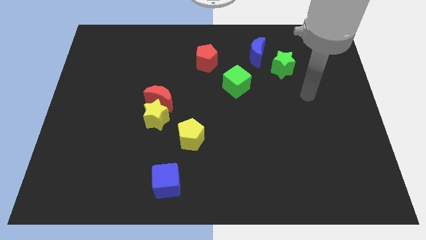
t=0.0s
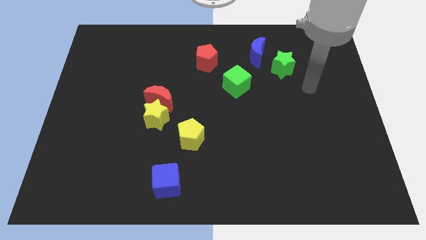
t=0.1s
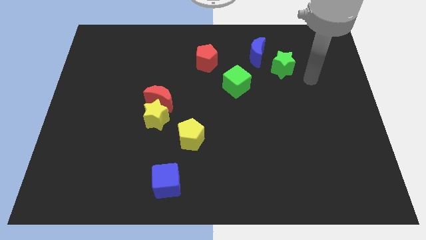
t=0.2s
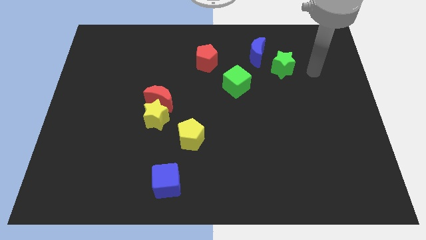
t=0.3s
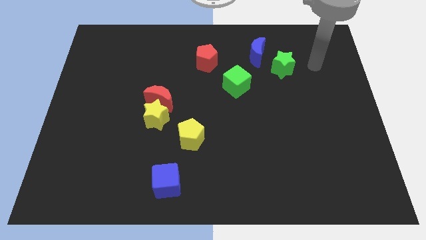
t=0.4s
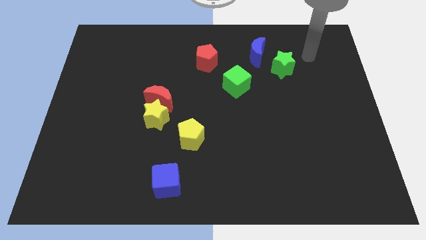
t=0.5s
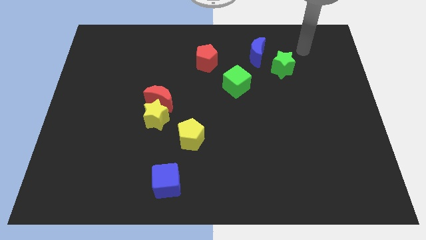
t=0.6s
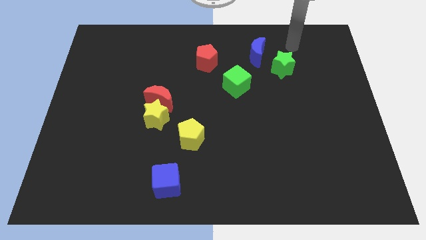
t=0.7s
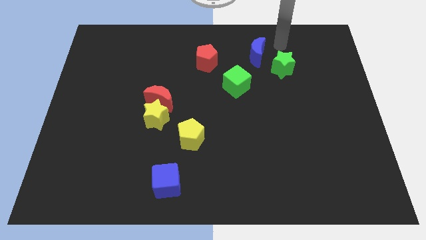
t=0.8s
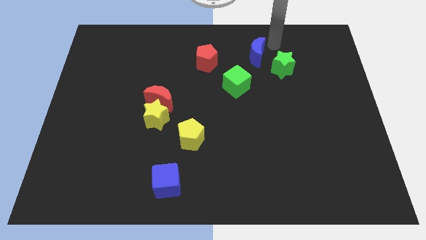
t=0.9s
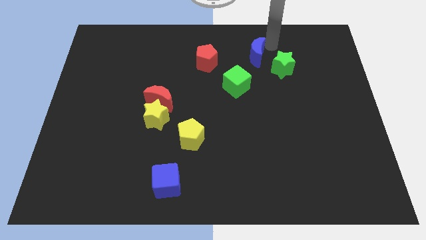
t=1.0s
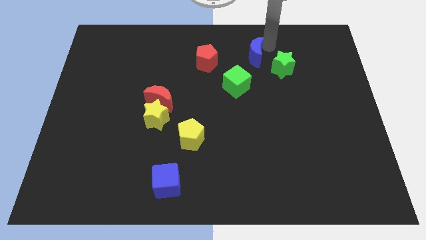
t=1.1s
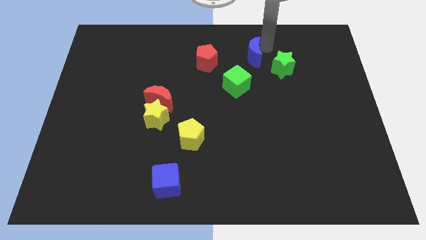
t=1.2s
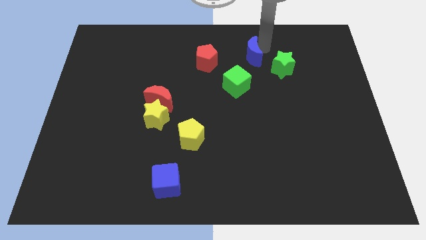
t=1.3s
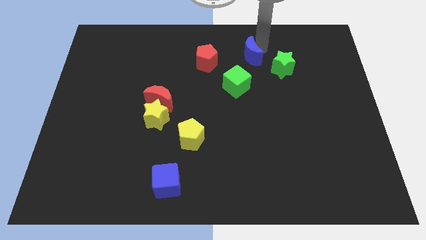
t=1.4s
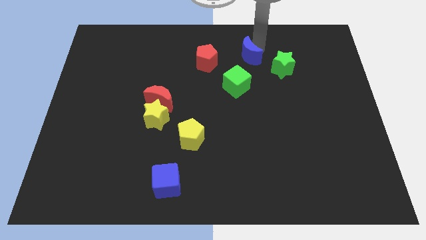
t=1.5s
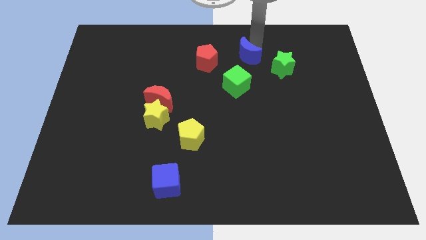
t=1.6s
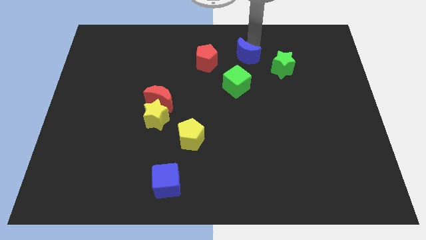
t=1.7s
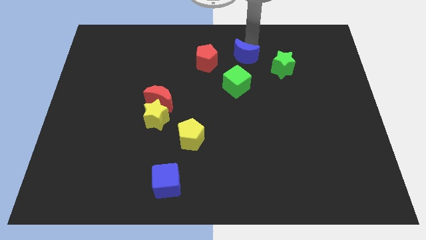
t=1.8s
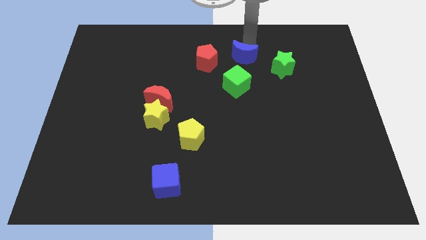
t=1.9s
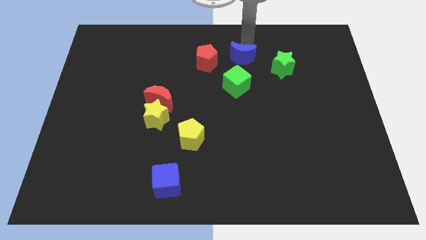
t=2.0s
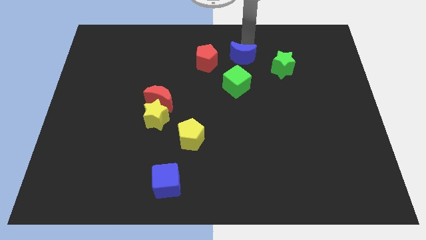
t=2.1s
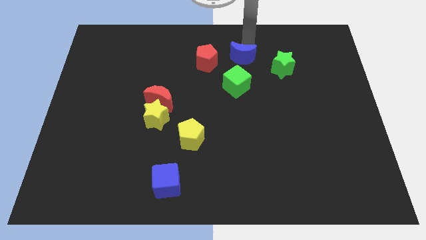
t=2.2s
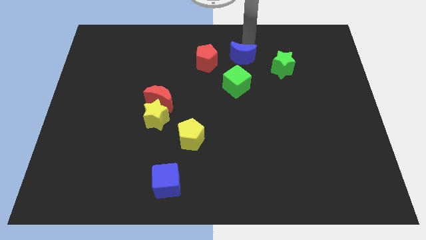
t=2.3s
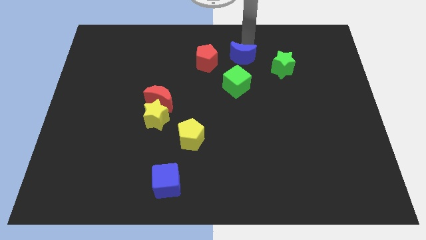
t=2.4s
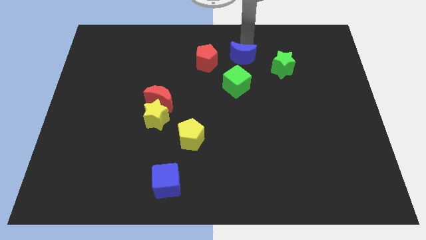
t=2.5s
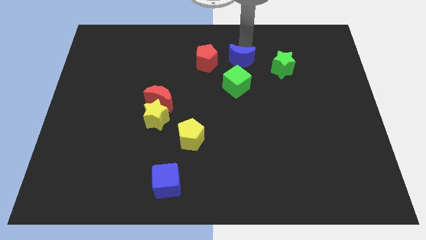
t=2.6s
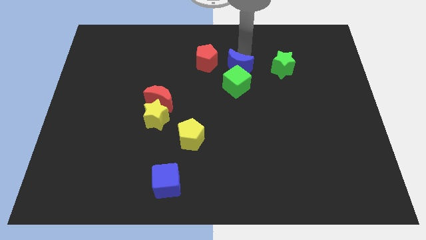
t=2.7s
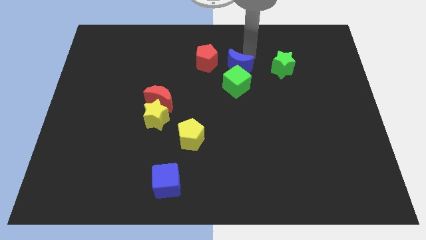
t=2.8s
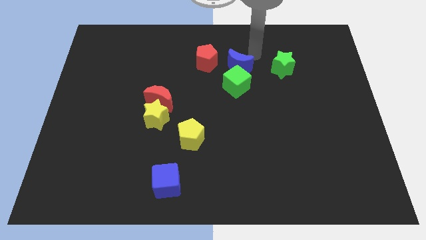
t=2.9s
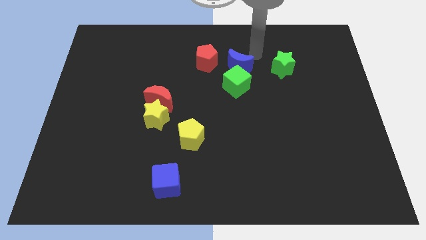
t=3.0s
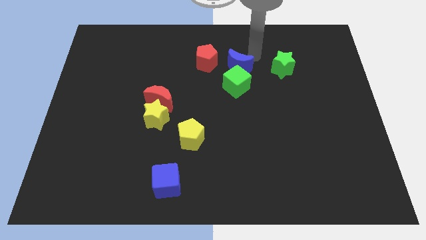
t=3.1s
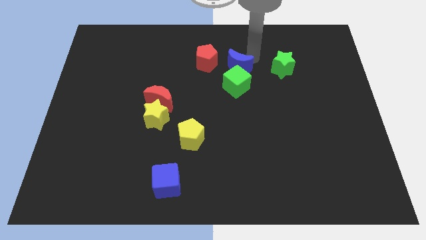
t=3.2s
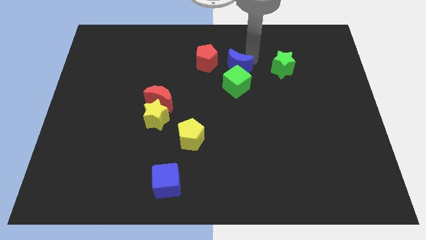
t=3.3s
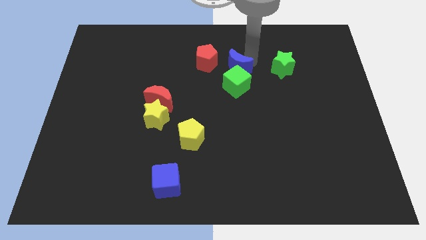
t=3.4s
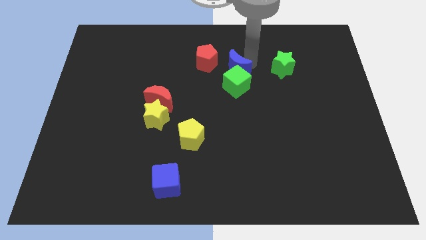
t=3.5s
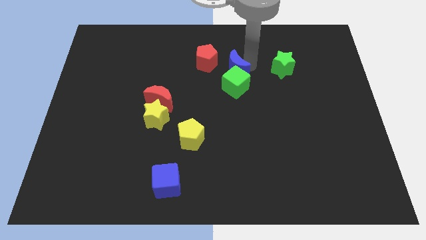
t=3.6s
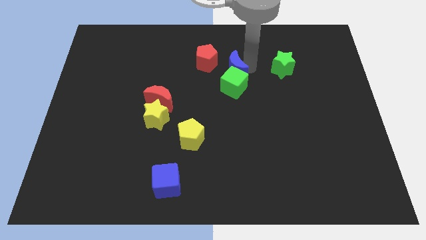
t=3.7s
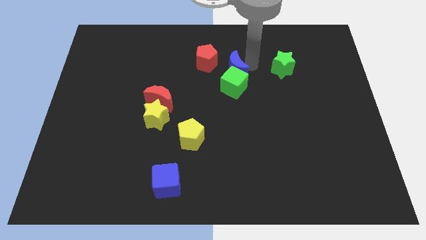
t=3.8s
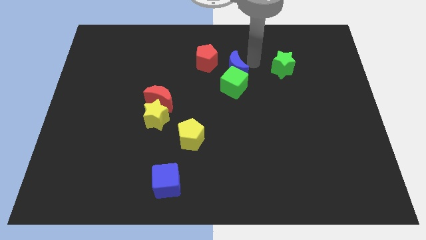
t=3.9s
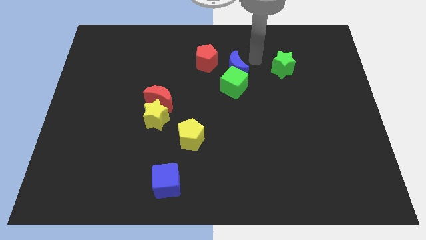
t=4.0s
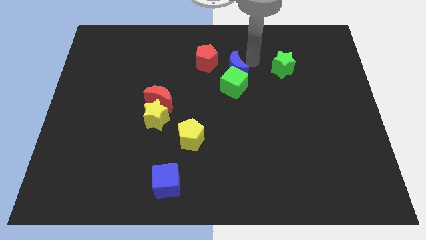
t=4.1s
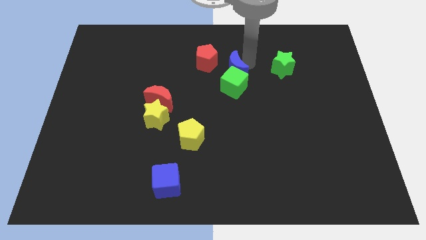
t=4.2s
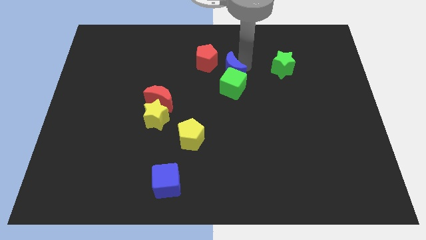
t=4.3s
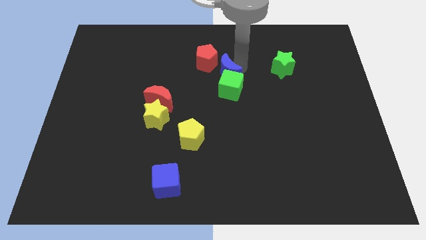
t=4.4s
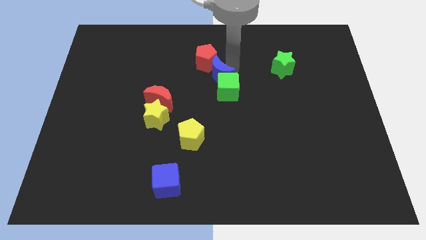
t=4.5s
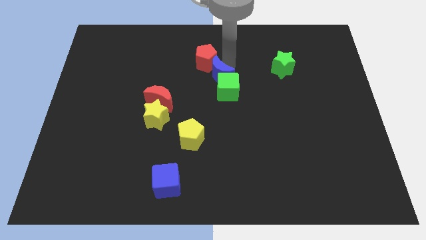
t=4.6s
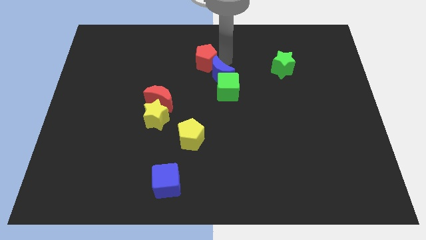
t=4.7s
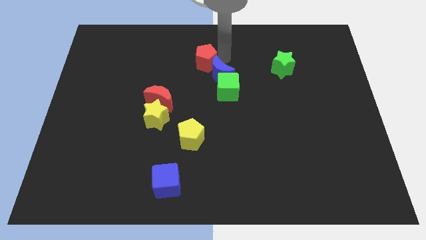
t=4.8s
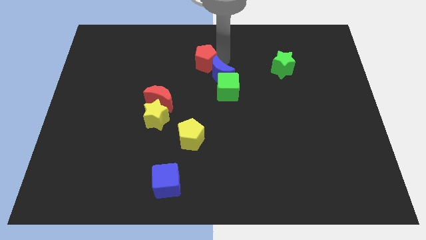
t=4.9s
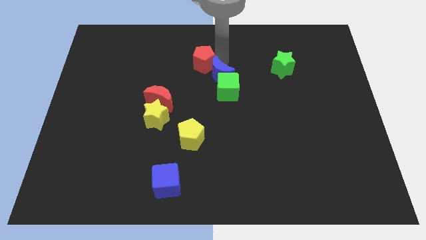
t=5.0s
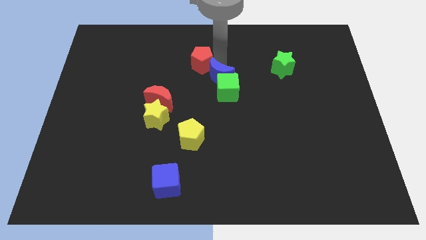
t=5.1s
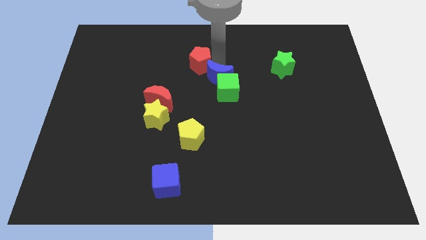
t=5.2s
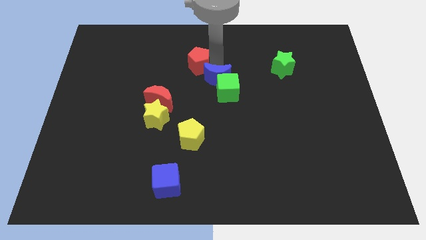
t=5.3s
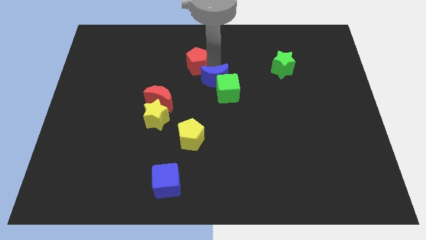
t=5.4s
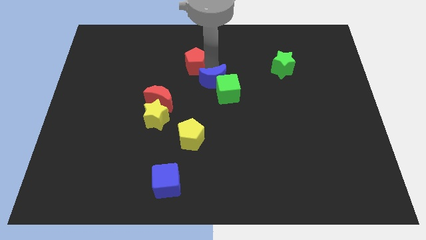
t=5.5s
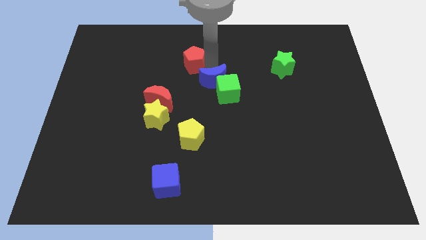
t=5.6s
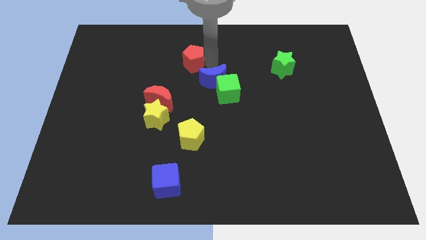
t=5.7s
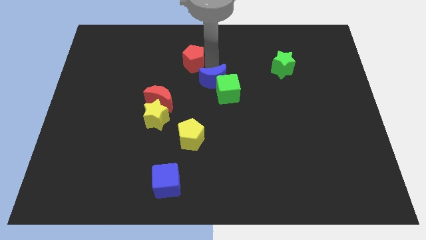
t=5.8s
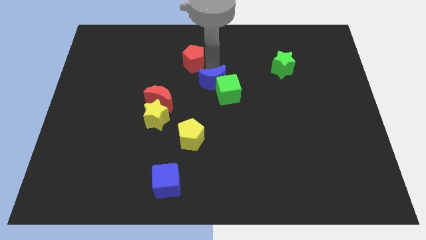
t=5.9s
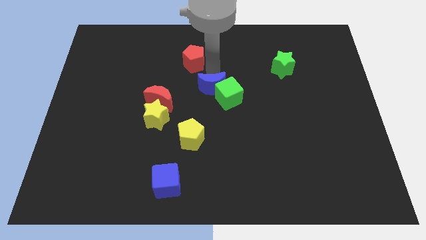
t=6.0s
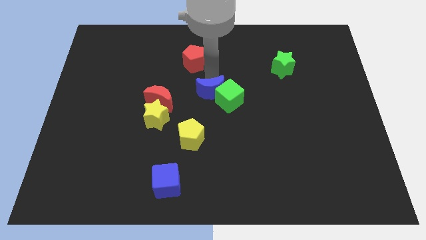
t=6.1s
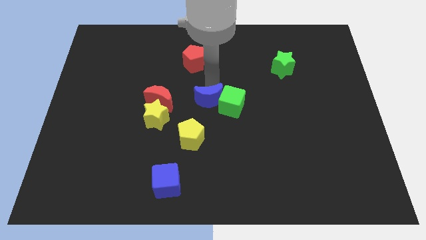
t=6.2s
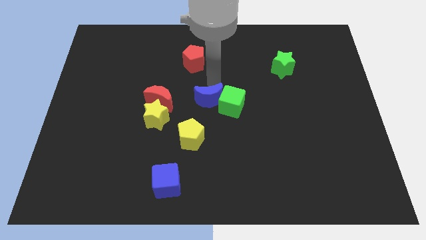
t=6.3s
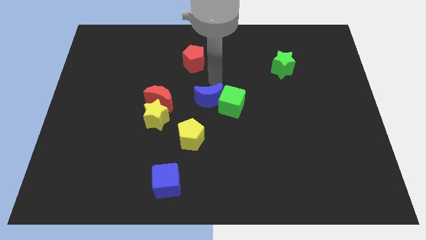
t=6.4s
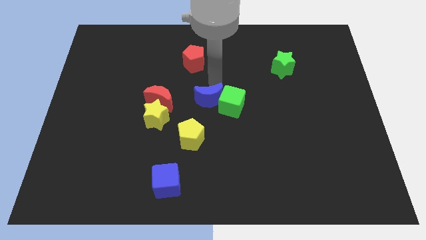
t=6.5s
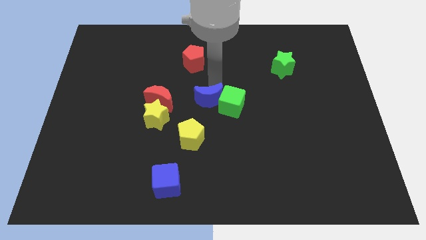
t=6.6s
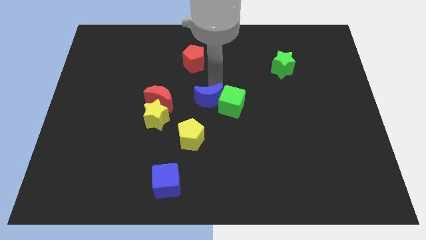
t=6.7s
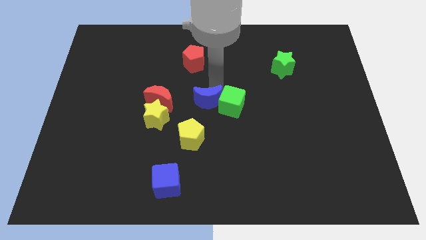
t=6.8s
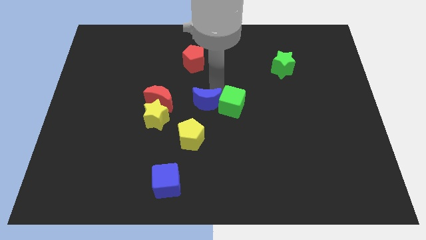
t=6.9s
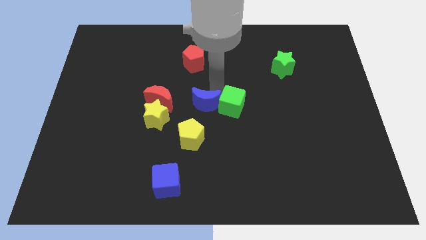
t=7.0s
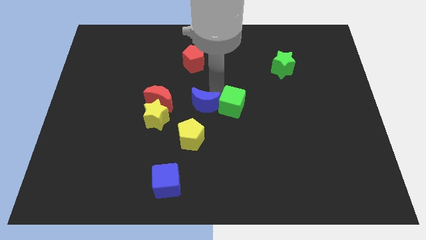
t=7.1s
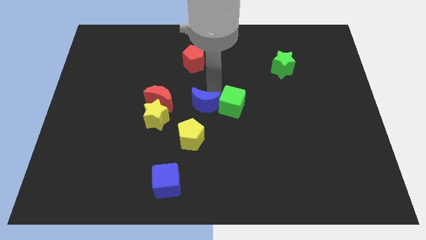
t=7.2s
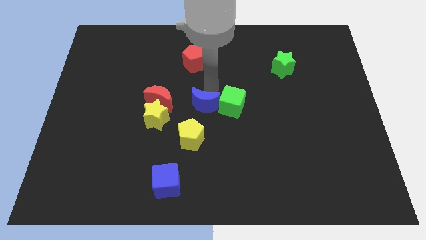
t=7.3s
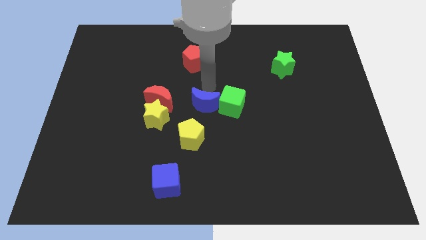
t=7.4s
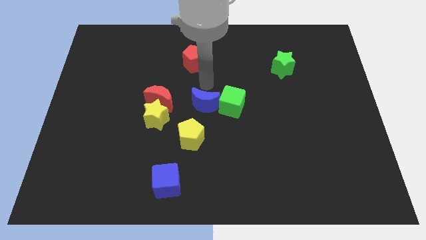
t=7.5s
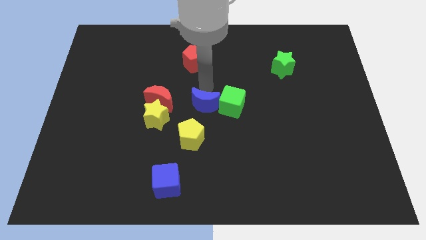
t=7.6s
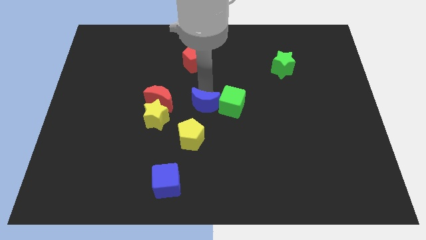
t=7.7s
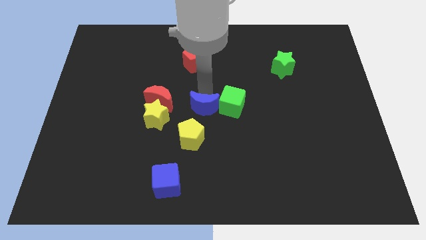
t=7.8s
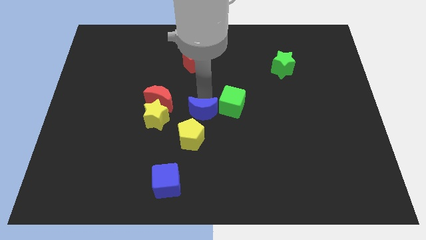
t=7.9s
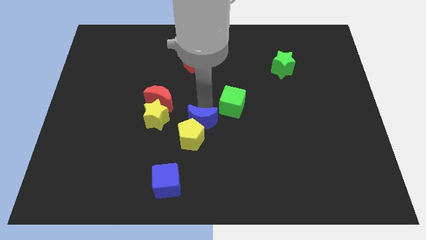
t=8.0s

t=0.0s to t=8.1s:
put the blue moon to the yellow pentagon
